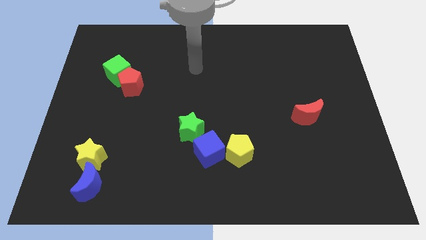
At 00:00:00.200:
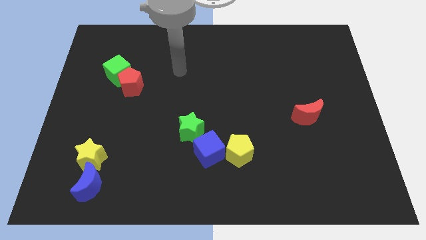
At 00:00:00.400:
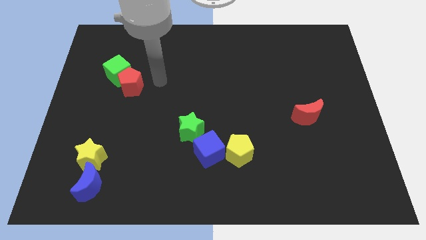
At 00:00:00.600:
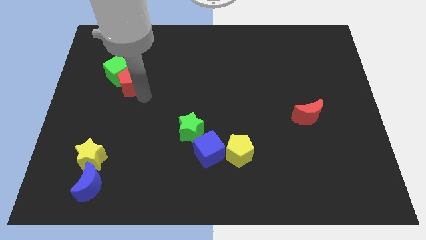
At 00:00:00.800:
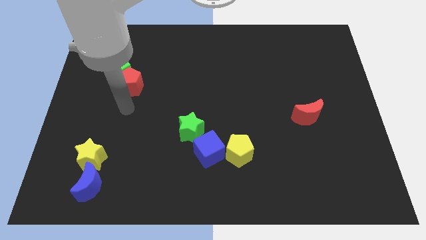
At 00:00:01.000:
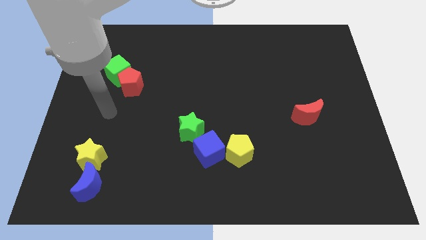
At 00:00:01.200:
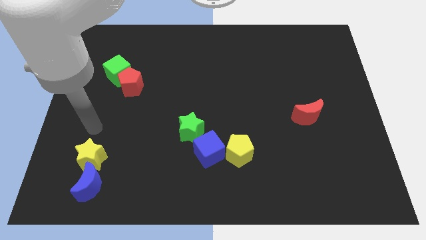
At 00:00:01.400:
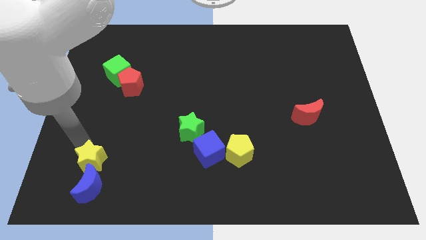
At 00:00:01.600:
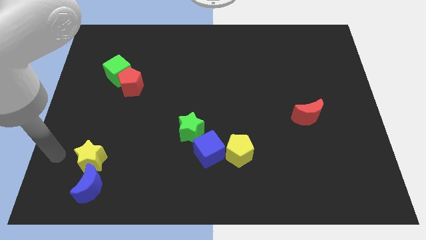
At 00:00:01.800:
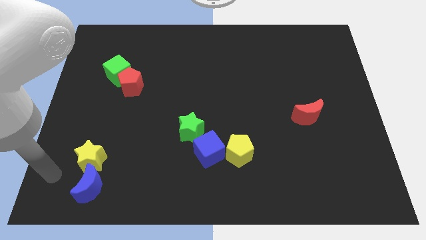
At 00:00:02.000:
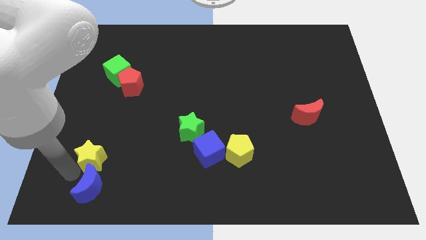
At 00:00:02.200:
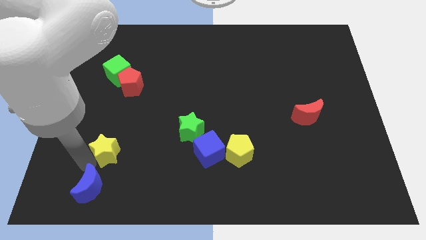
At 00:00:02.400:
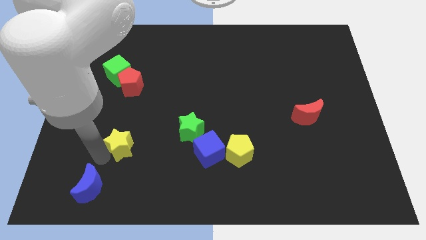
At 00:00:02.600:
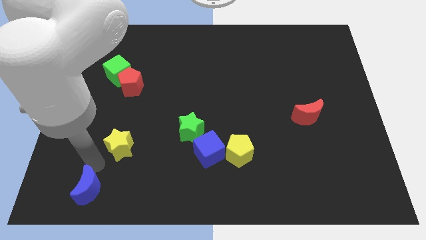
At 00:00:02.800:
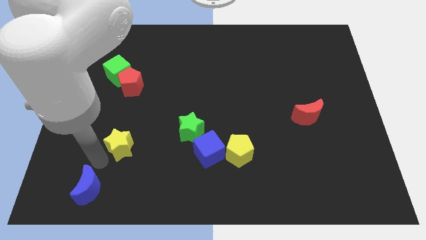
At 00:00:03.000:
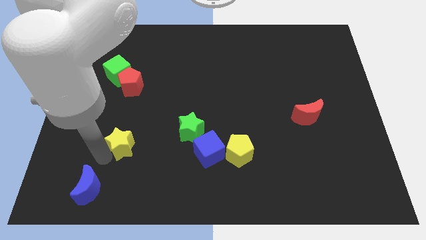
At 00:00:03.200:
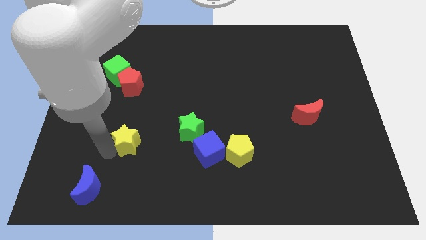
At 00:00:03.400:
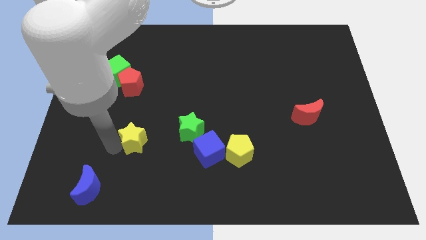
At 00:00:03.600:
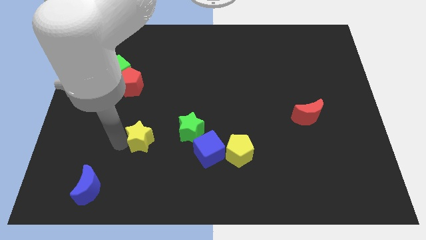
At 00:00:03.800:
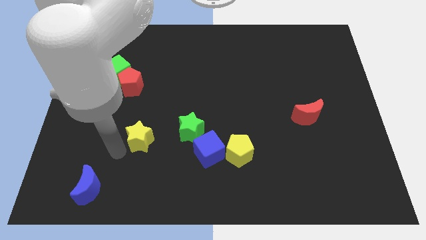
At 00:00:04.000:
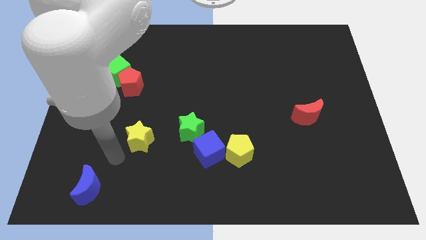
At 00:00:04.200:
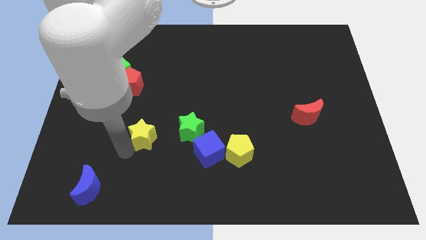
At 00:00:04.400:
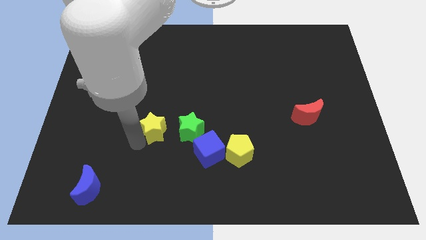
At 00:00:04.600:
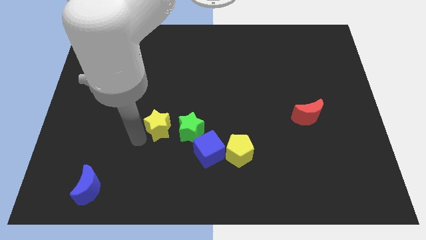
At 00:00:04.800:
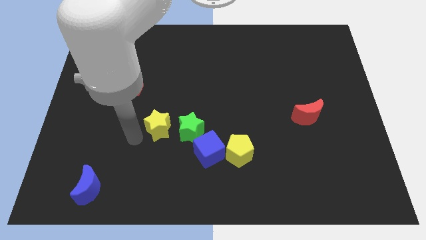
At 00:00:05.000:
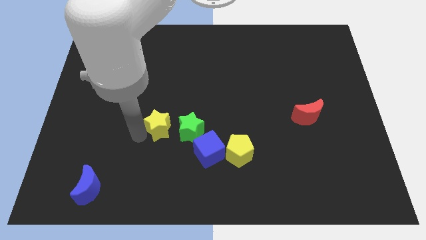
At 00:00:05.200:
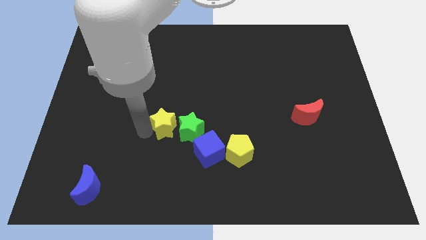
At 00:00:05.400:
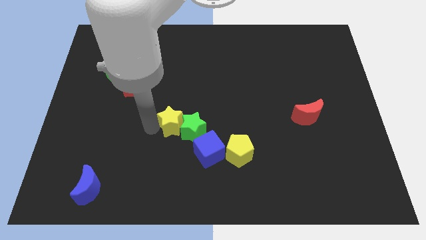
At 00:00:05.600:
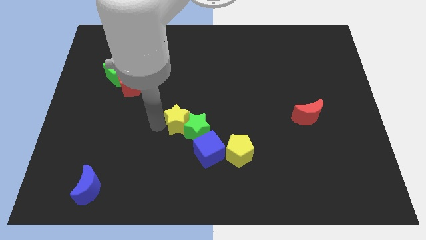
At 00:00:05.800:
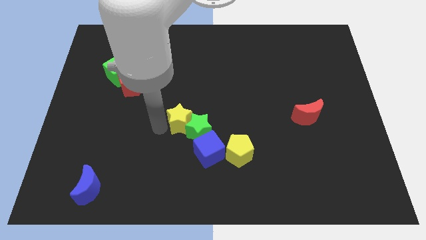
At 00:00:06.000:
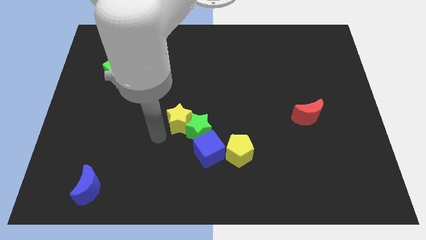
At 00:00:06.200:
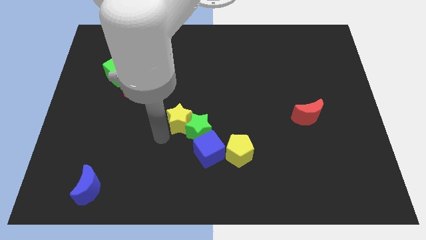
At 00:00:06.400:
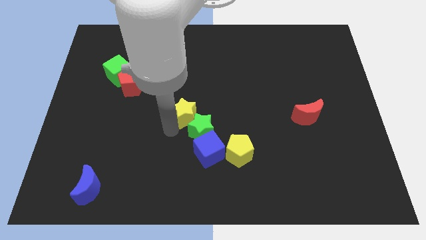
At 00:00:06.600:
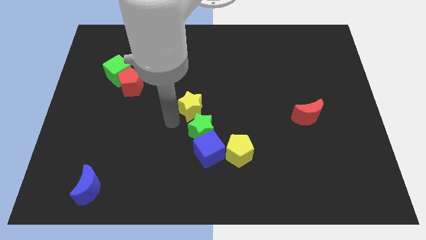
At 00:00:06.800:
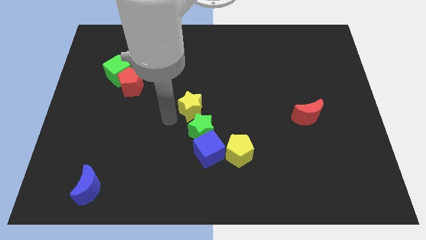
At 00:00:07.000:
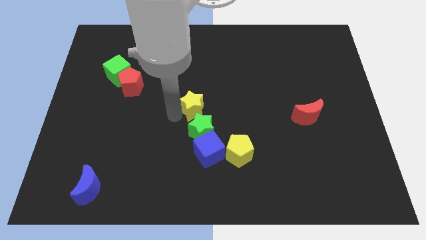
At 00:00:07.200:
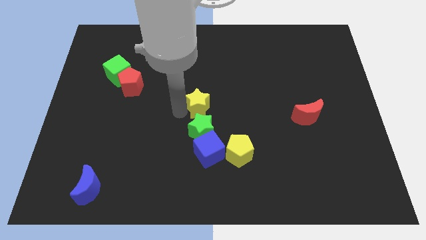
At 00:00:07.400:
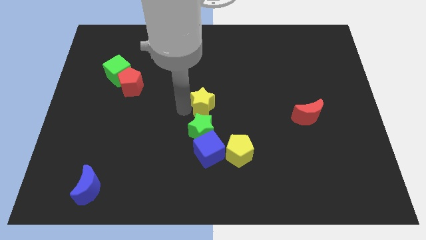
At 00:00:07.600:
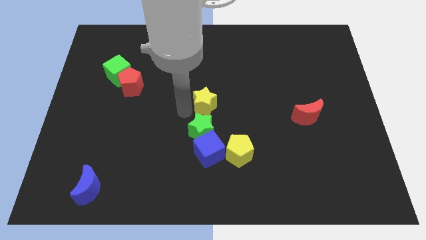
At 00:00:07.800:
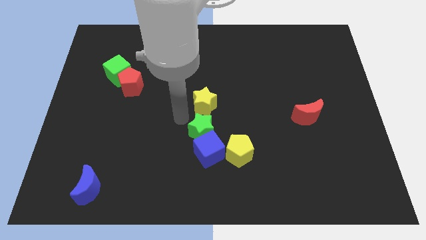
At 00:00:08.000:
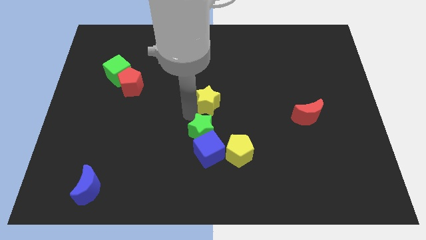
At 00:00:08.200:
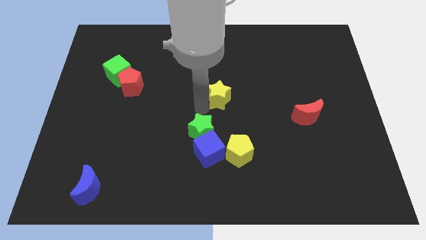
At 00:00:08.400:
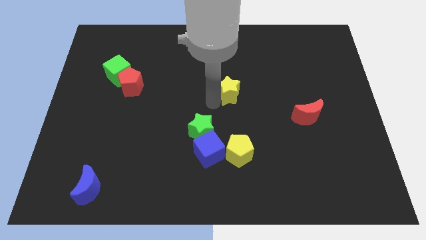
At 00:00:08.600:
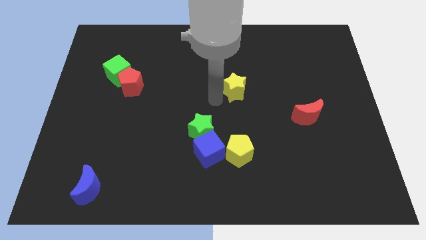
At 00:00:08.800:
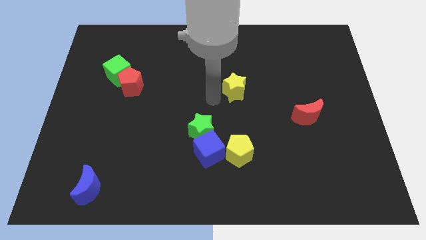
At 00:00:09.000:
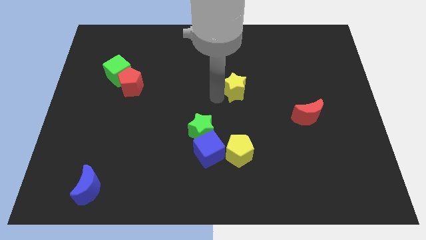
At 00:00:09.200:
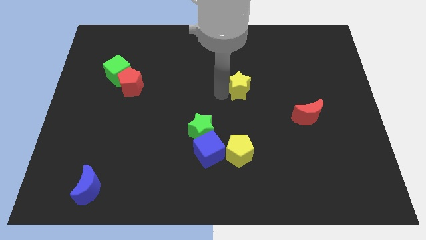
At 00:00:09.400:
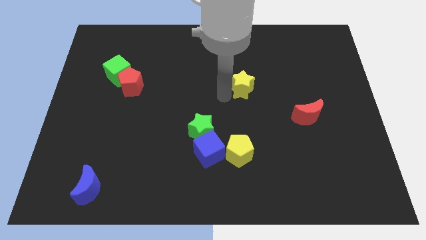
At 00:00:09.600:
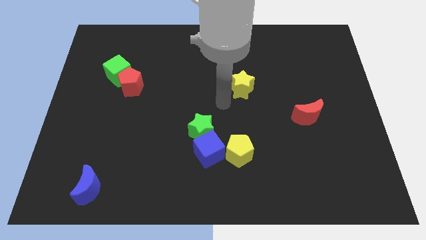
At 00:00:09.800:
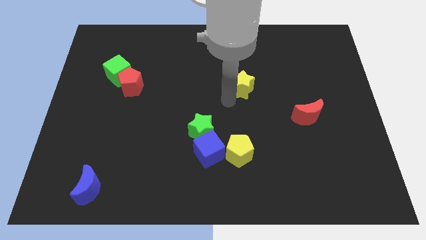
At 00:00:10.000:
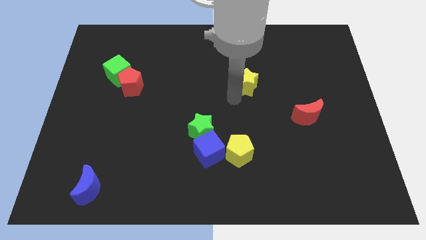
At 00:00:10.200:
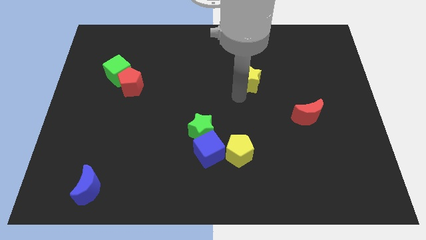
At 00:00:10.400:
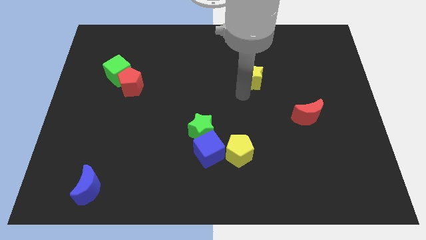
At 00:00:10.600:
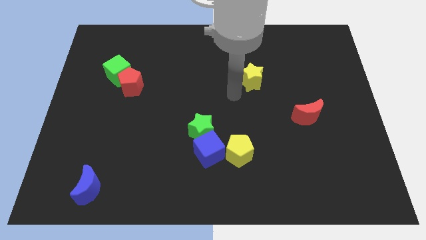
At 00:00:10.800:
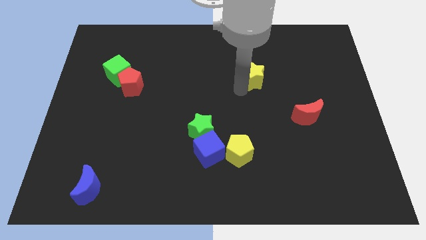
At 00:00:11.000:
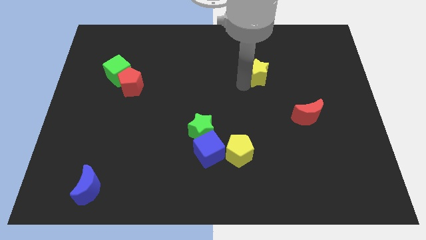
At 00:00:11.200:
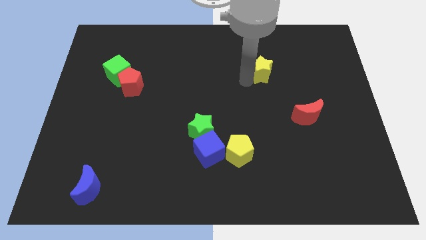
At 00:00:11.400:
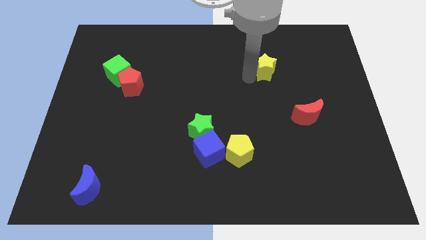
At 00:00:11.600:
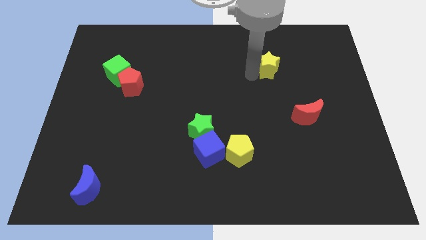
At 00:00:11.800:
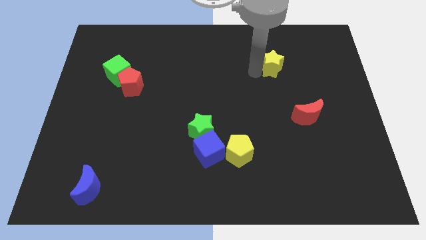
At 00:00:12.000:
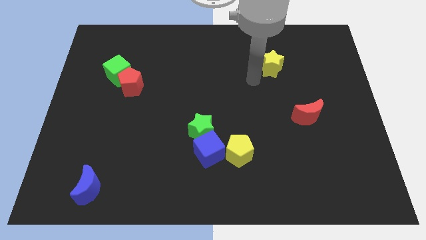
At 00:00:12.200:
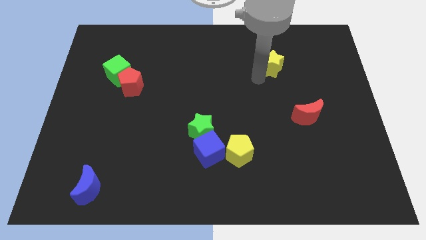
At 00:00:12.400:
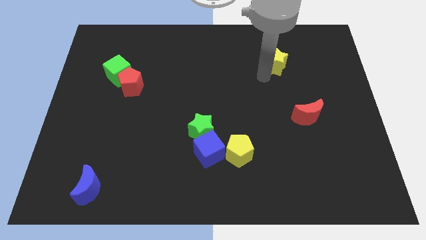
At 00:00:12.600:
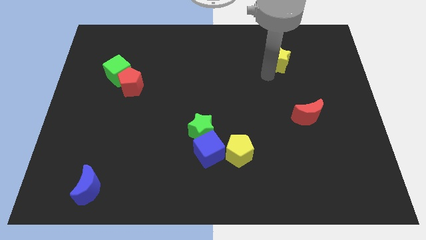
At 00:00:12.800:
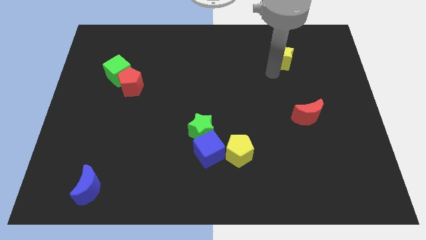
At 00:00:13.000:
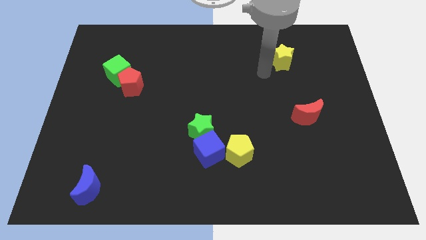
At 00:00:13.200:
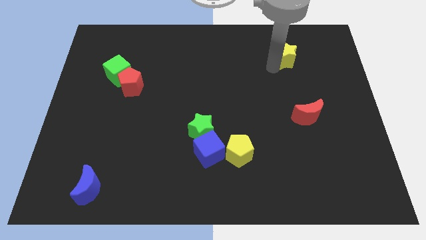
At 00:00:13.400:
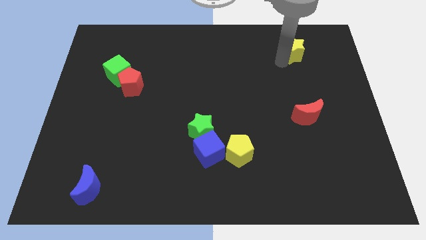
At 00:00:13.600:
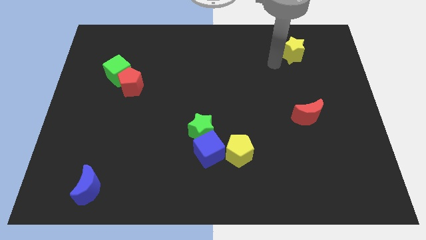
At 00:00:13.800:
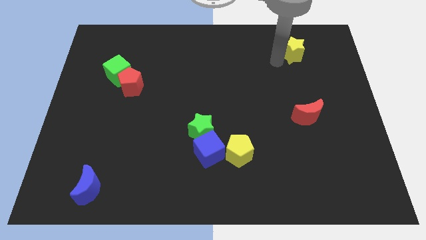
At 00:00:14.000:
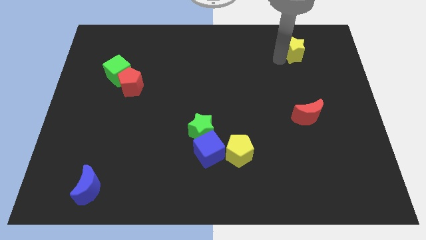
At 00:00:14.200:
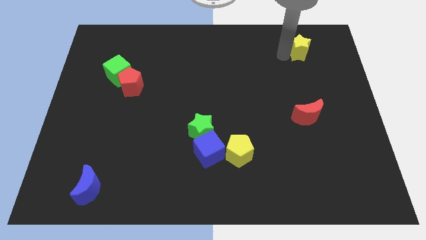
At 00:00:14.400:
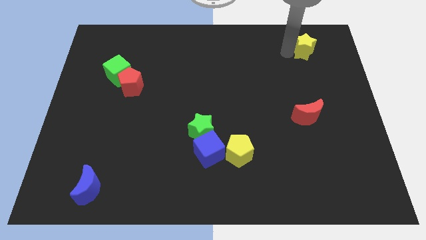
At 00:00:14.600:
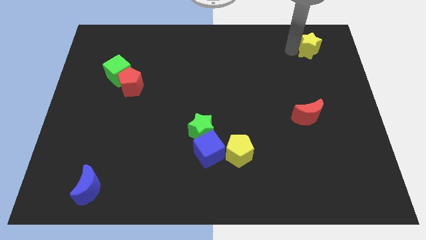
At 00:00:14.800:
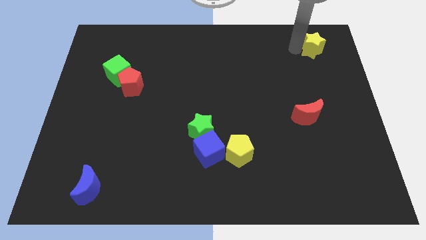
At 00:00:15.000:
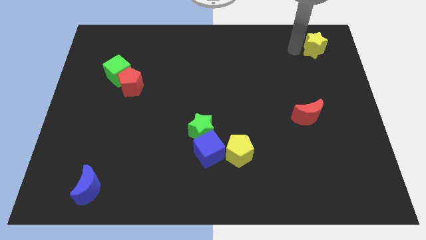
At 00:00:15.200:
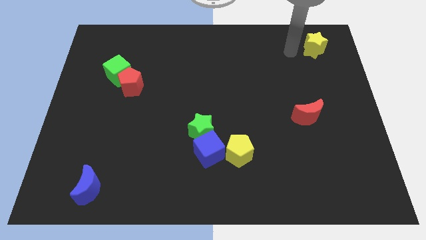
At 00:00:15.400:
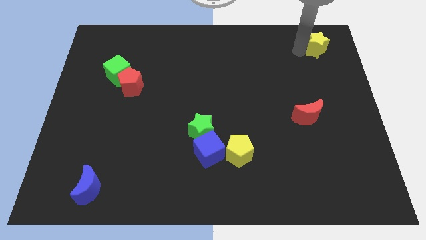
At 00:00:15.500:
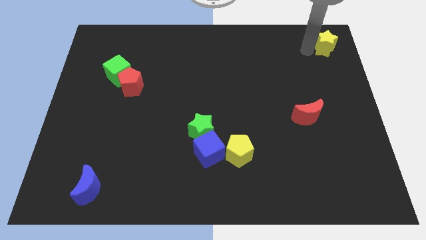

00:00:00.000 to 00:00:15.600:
slide the yellow star to the top right of the board
